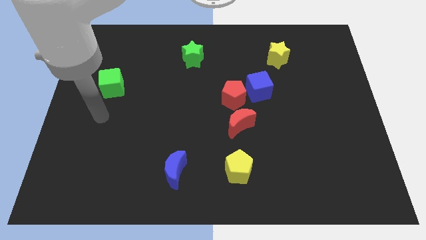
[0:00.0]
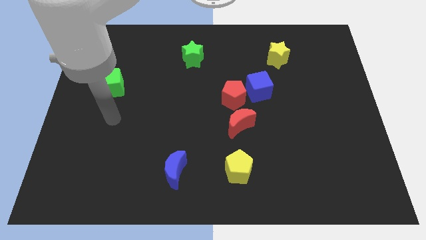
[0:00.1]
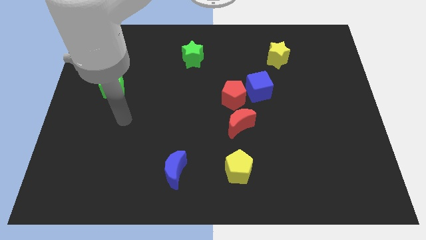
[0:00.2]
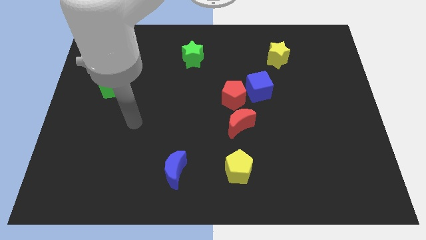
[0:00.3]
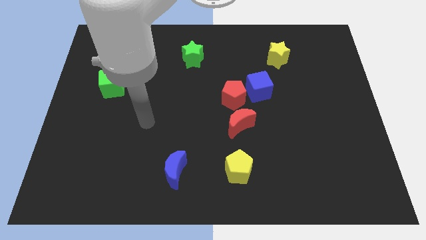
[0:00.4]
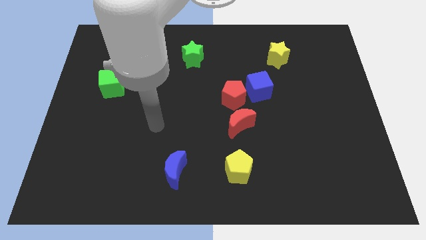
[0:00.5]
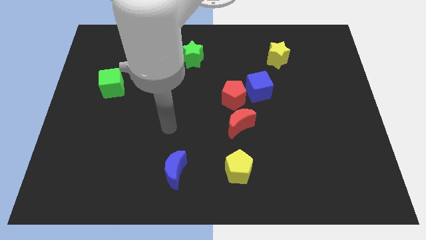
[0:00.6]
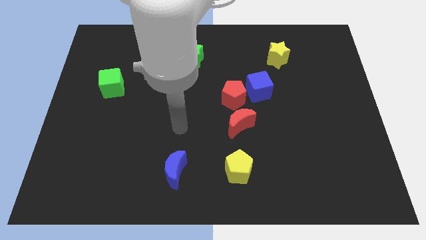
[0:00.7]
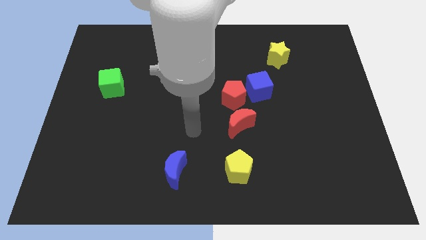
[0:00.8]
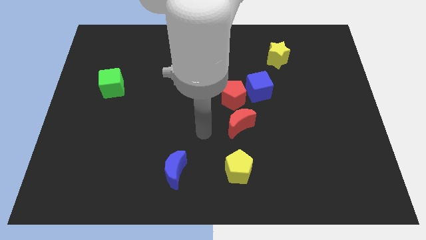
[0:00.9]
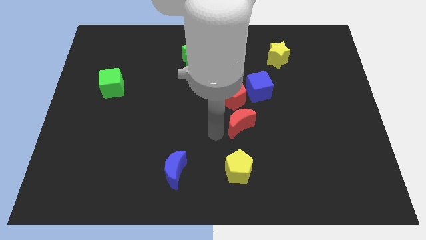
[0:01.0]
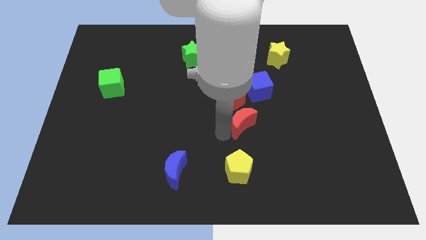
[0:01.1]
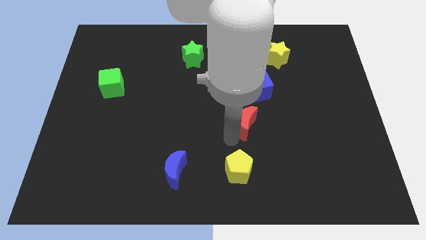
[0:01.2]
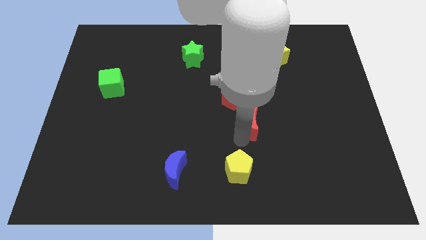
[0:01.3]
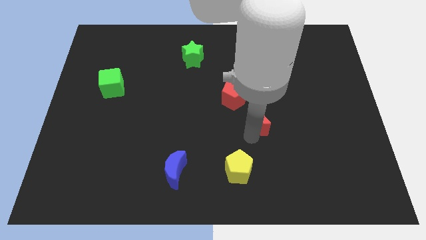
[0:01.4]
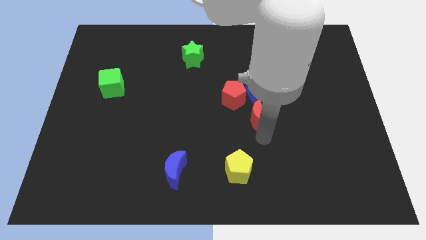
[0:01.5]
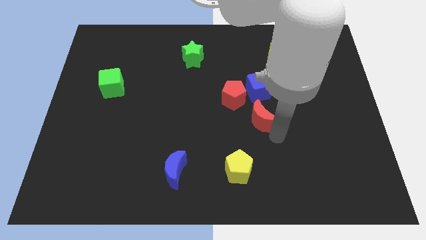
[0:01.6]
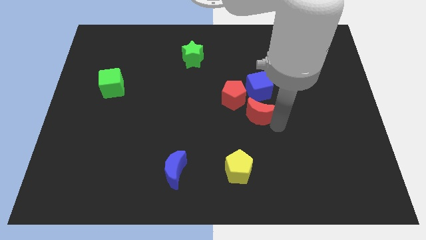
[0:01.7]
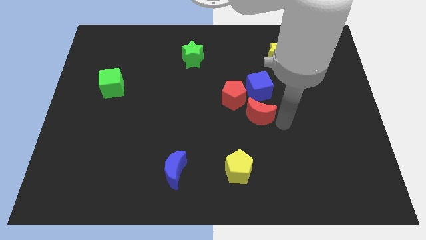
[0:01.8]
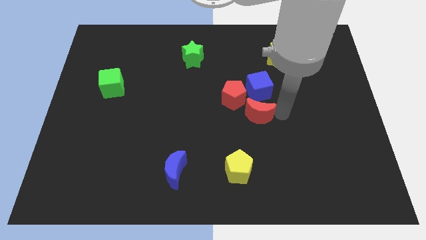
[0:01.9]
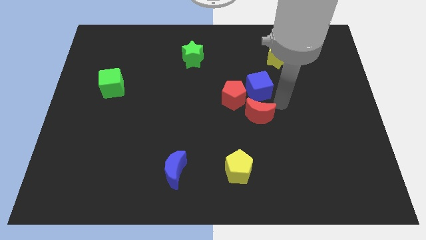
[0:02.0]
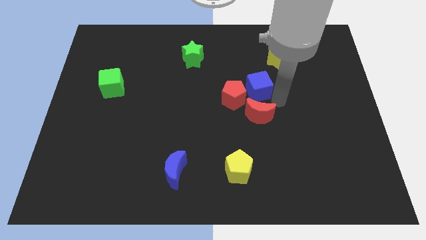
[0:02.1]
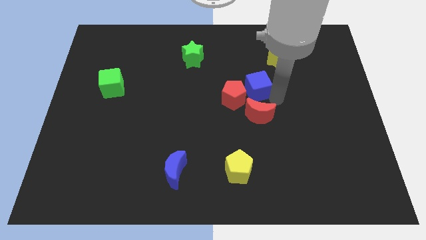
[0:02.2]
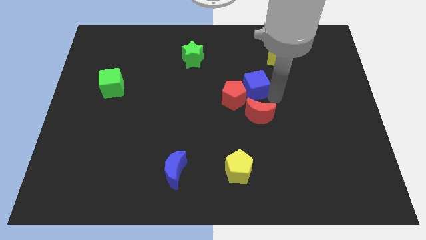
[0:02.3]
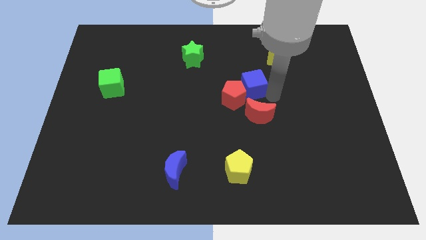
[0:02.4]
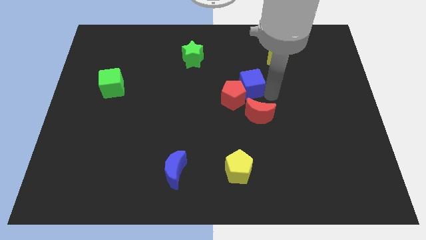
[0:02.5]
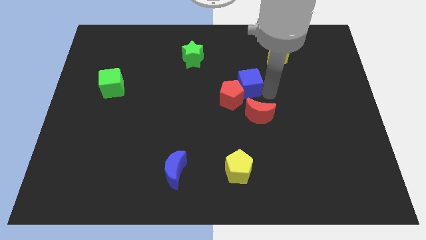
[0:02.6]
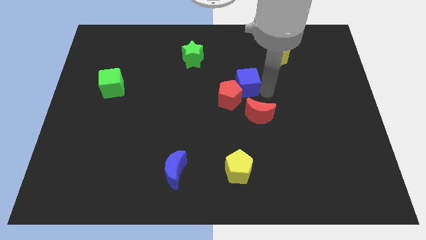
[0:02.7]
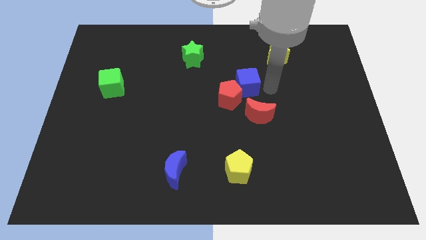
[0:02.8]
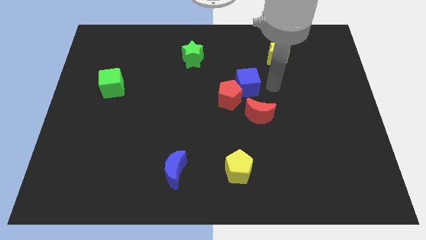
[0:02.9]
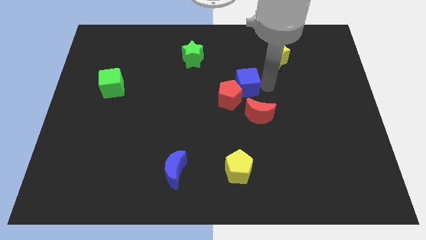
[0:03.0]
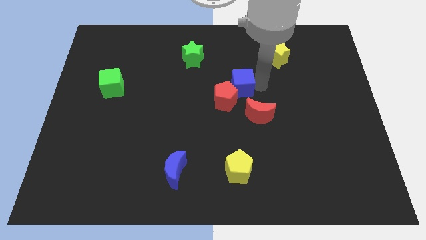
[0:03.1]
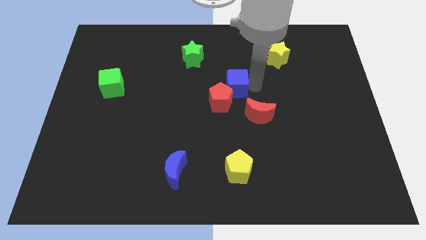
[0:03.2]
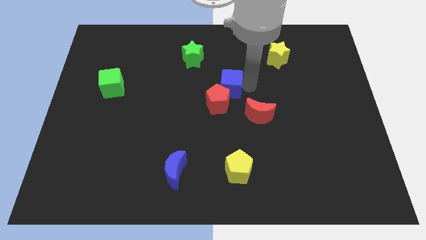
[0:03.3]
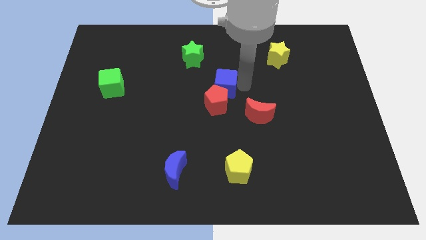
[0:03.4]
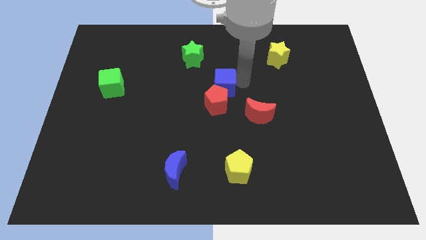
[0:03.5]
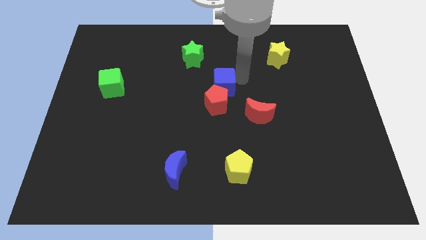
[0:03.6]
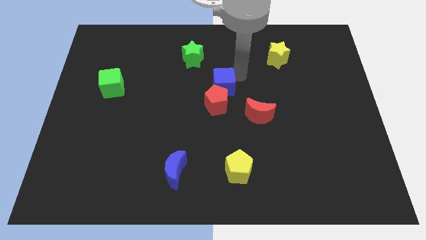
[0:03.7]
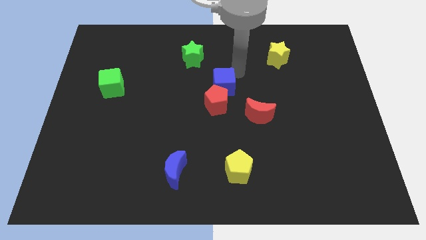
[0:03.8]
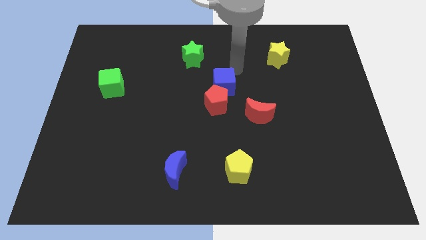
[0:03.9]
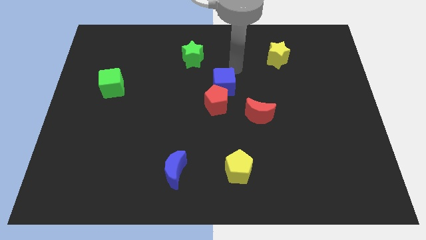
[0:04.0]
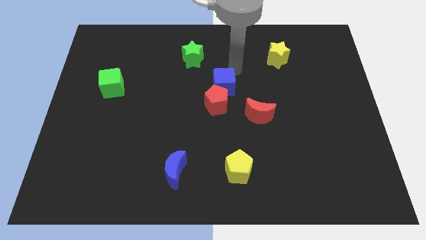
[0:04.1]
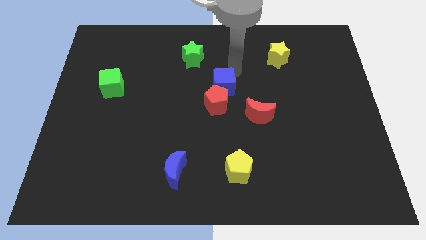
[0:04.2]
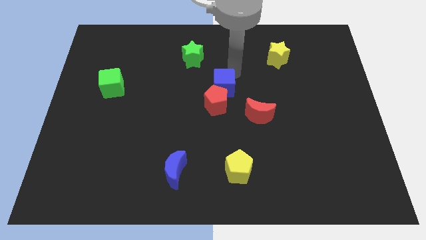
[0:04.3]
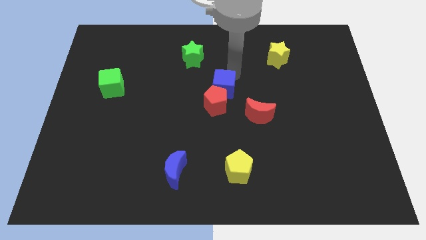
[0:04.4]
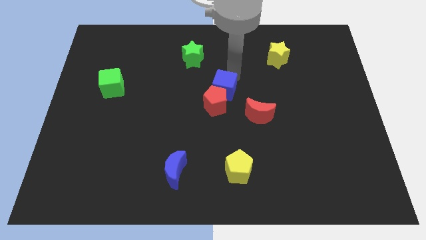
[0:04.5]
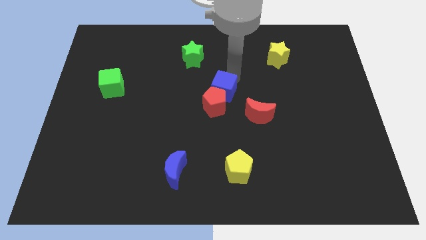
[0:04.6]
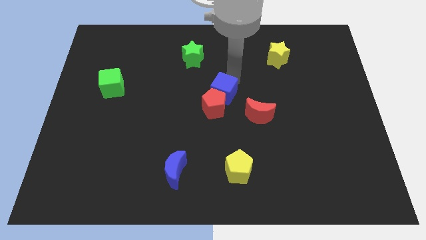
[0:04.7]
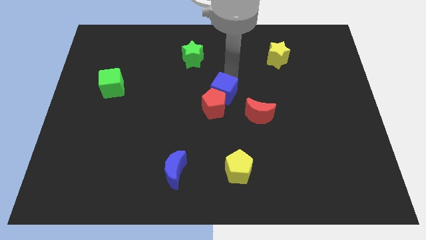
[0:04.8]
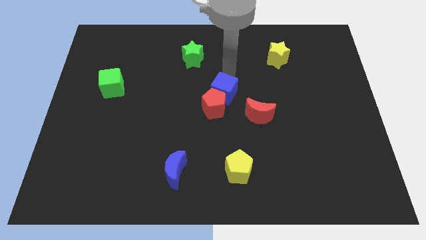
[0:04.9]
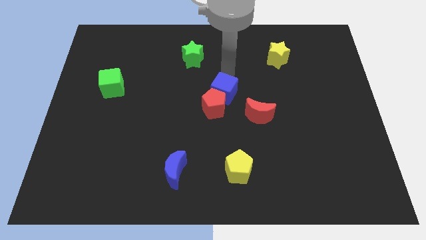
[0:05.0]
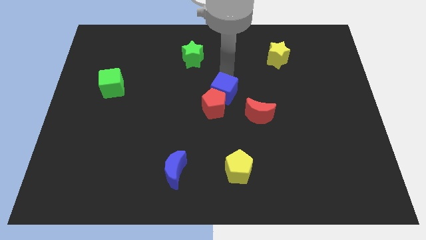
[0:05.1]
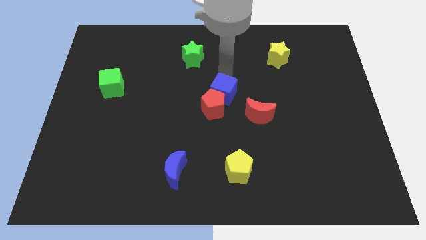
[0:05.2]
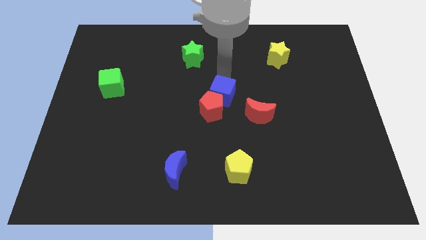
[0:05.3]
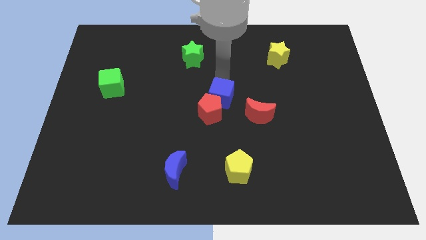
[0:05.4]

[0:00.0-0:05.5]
push the blue cube slightly diagonally down and to the left

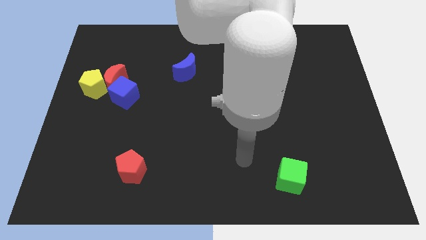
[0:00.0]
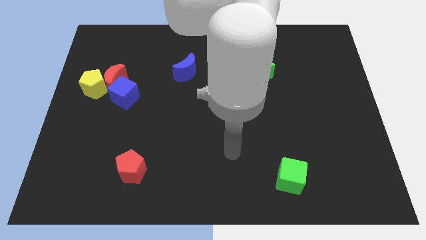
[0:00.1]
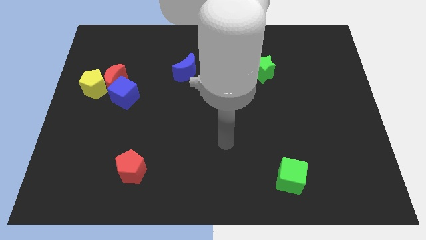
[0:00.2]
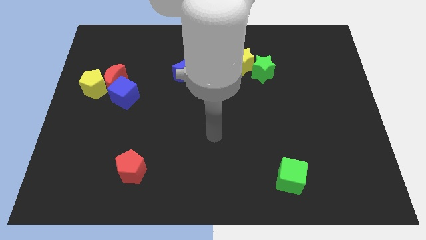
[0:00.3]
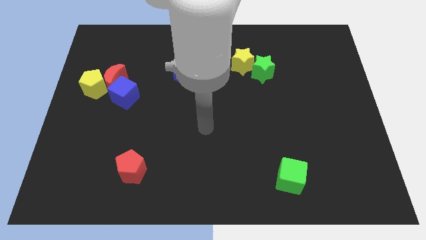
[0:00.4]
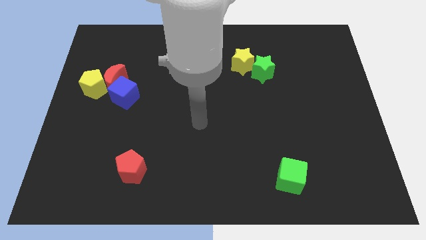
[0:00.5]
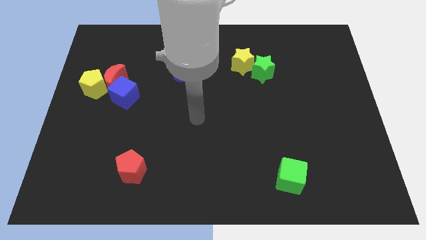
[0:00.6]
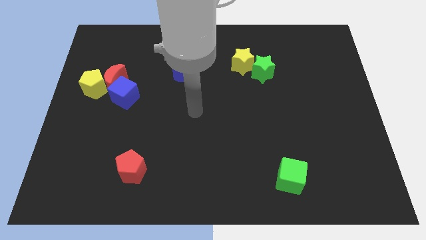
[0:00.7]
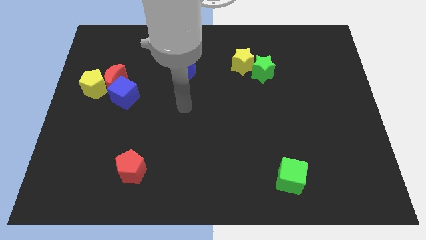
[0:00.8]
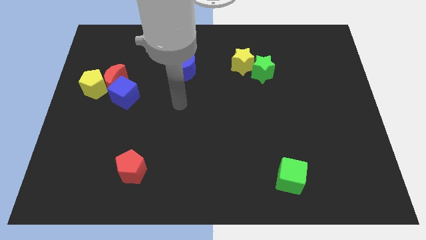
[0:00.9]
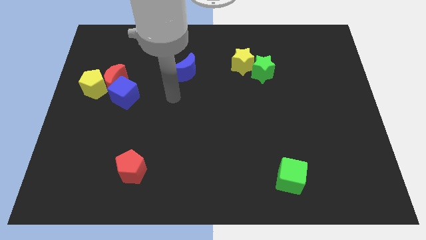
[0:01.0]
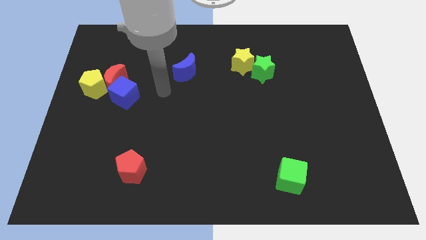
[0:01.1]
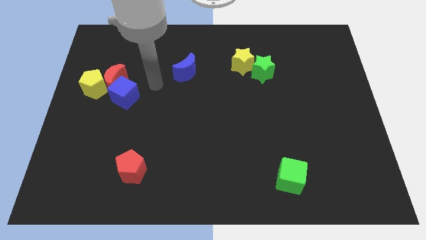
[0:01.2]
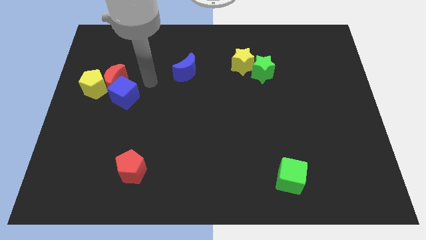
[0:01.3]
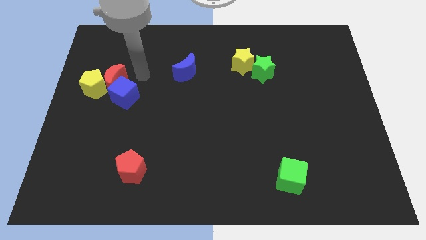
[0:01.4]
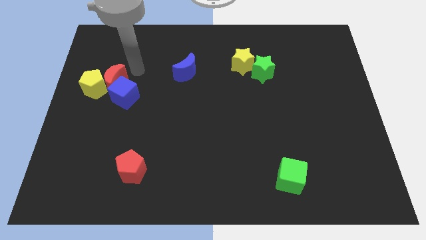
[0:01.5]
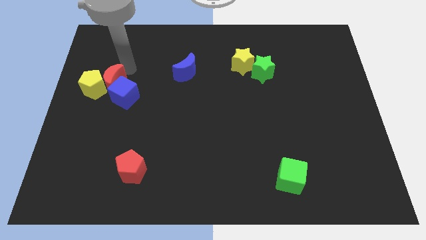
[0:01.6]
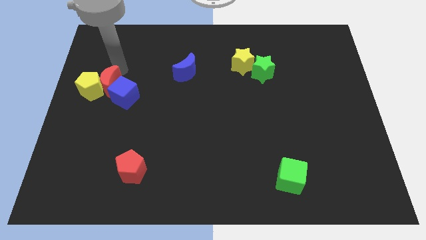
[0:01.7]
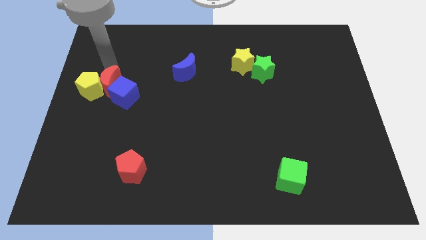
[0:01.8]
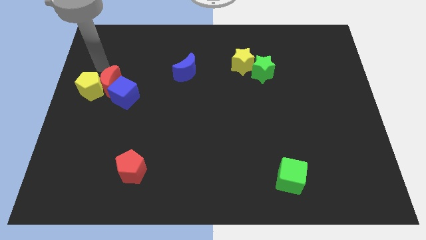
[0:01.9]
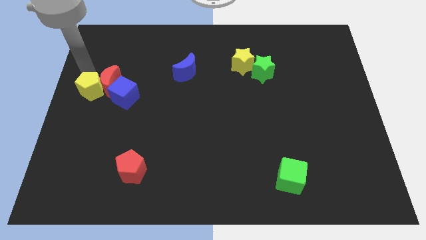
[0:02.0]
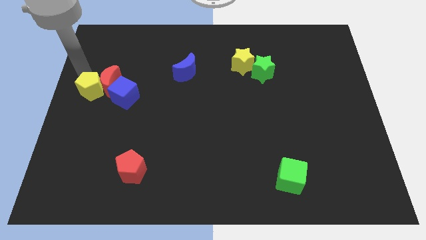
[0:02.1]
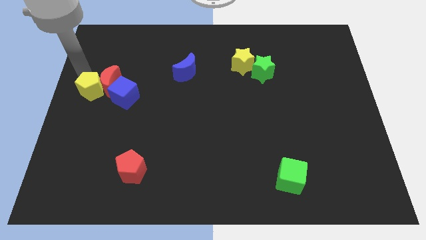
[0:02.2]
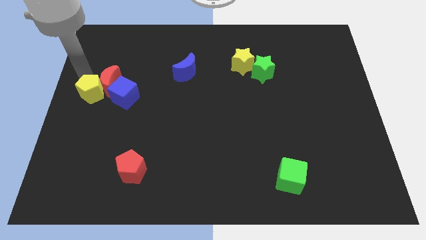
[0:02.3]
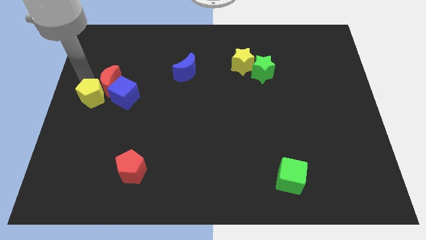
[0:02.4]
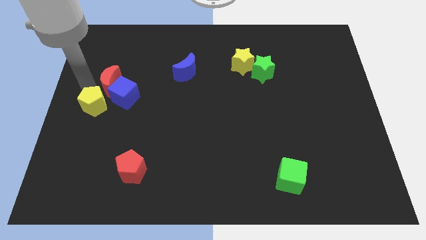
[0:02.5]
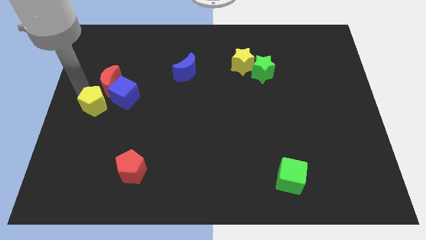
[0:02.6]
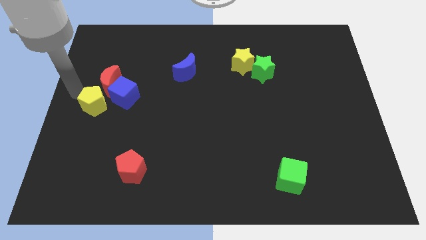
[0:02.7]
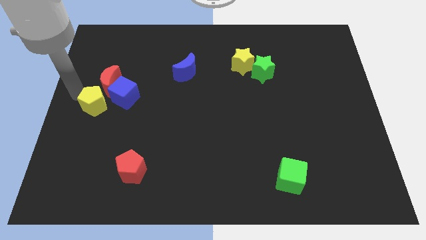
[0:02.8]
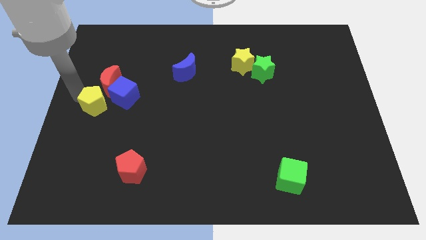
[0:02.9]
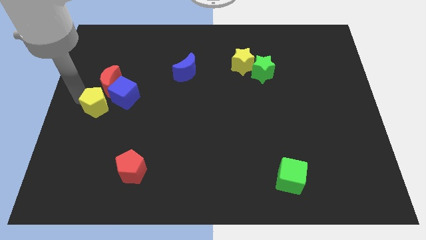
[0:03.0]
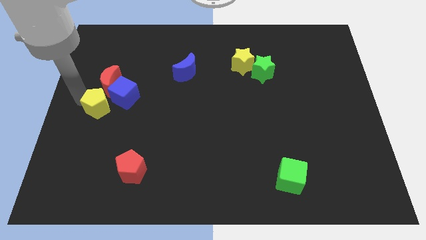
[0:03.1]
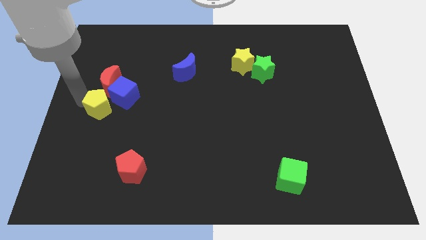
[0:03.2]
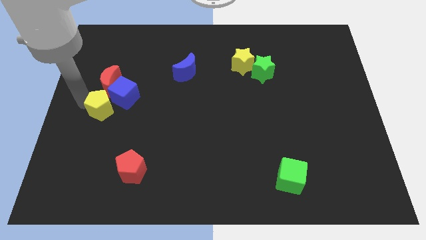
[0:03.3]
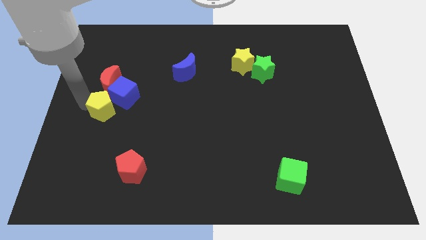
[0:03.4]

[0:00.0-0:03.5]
move the yellow pentagon slightly down and to the right diagonally
